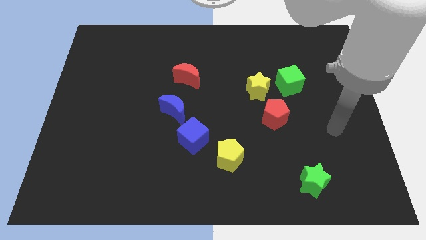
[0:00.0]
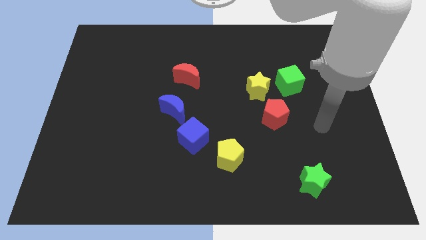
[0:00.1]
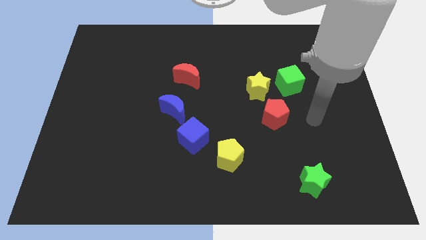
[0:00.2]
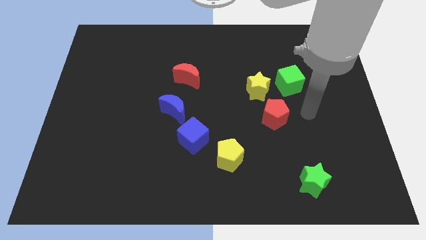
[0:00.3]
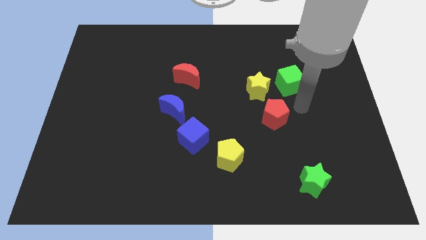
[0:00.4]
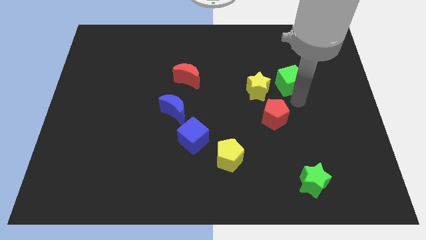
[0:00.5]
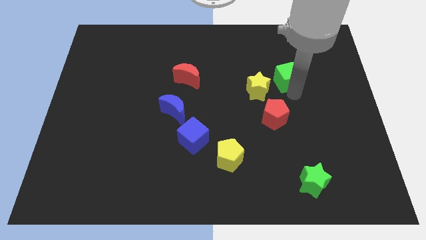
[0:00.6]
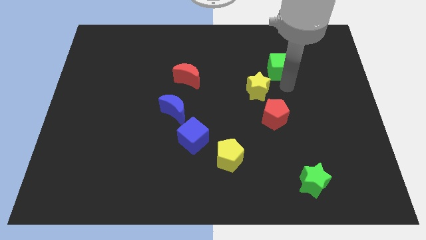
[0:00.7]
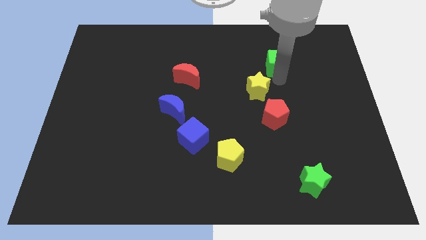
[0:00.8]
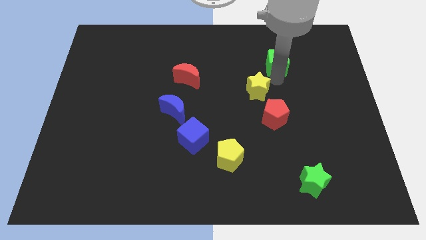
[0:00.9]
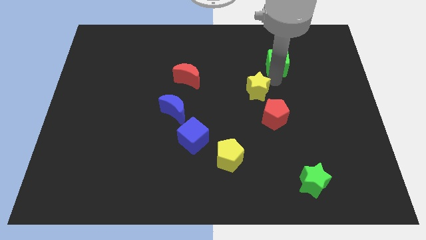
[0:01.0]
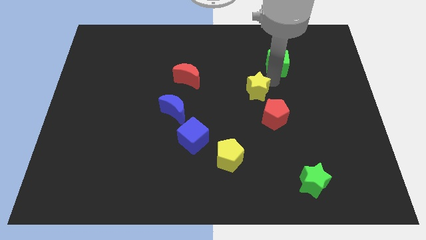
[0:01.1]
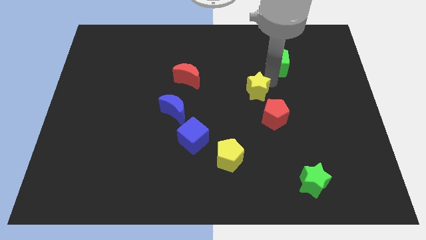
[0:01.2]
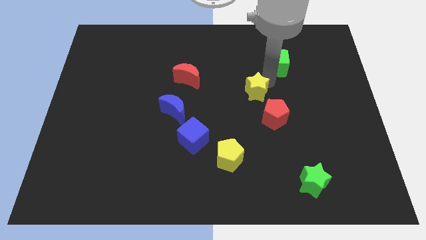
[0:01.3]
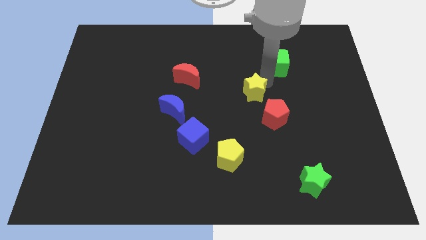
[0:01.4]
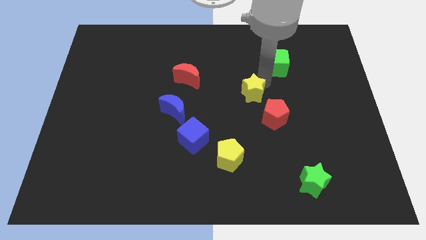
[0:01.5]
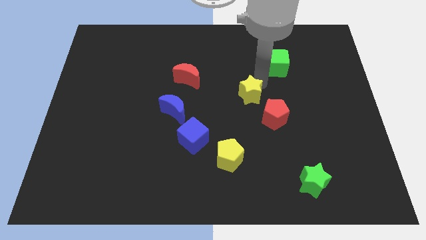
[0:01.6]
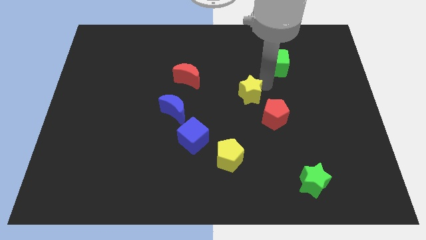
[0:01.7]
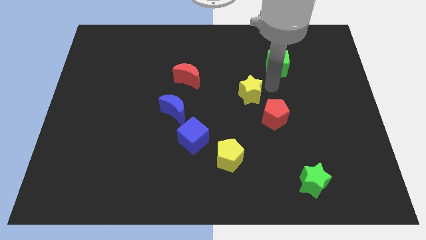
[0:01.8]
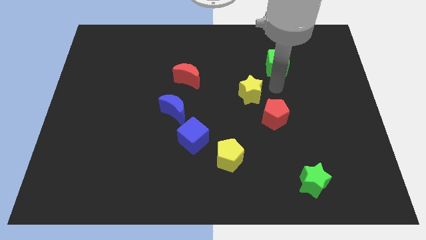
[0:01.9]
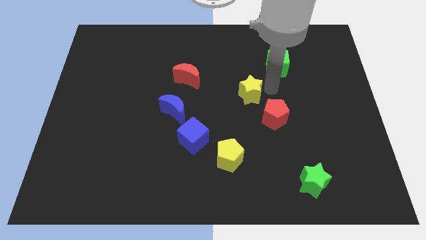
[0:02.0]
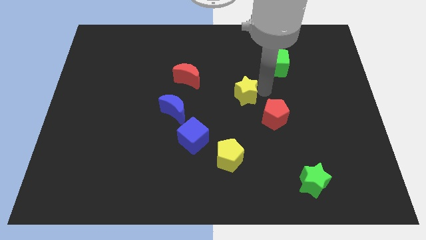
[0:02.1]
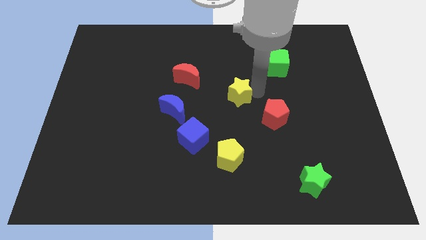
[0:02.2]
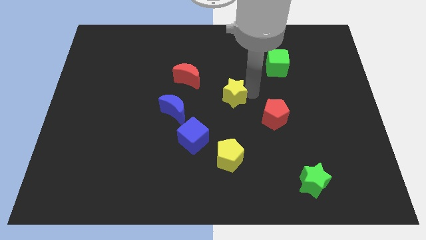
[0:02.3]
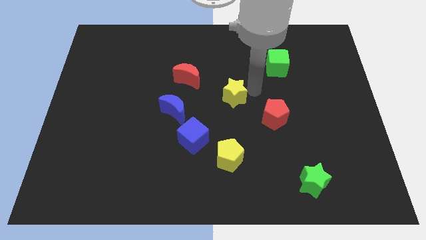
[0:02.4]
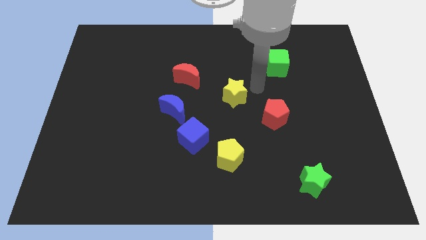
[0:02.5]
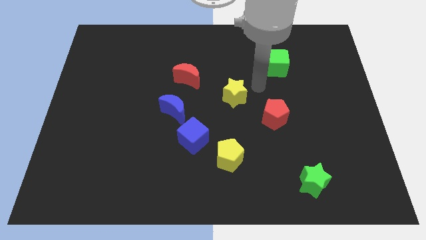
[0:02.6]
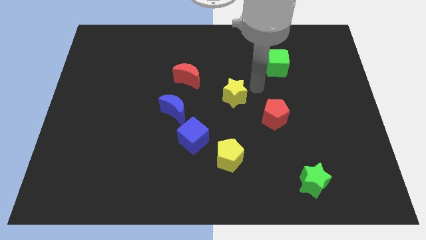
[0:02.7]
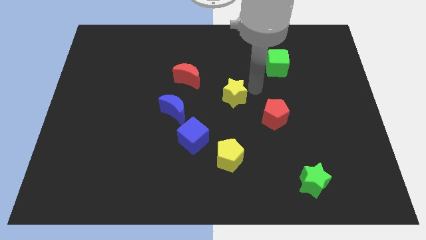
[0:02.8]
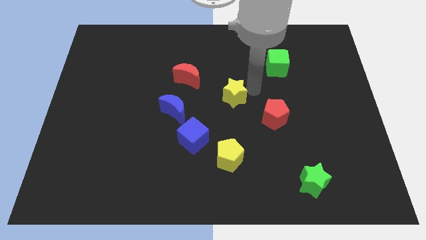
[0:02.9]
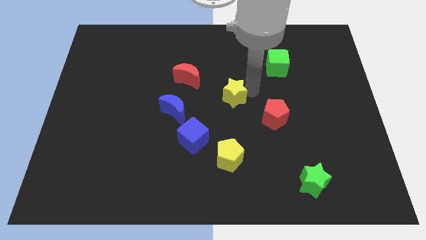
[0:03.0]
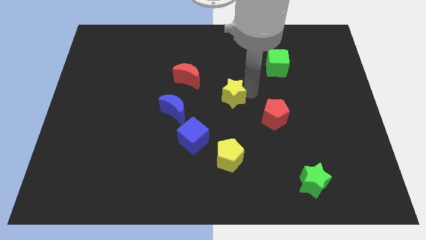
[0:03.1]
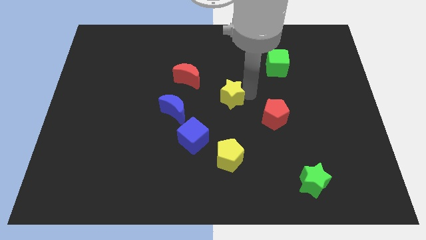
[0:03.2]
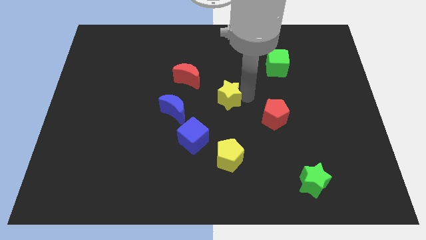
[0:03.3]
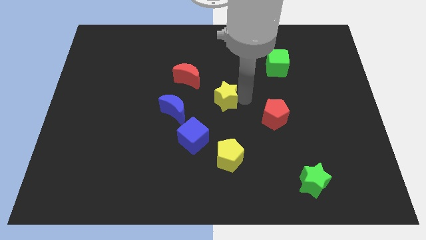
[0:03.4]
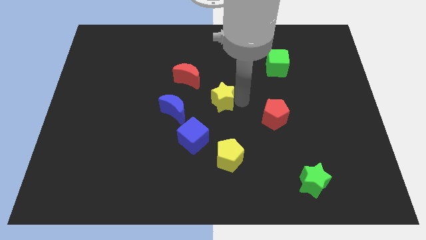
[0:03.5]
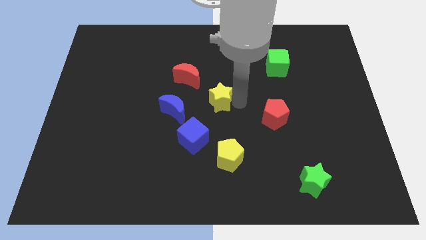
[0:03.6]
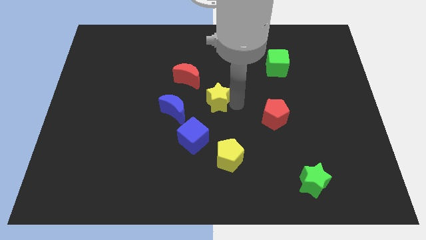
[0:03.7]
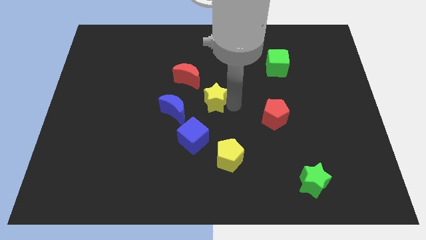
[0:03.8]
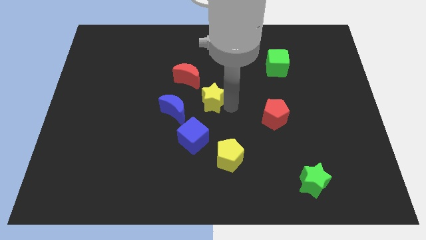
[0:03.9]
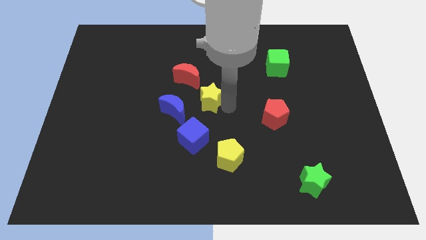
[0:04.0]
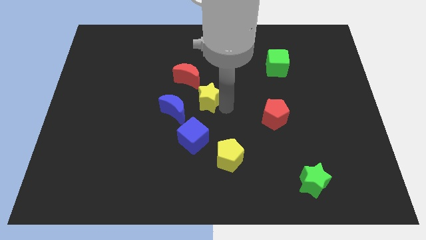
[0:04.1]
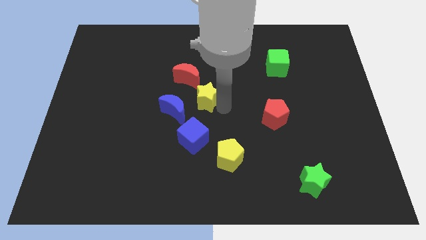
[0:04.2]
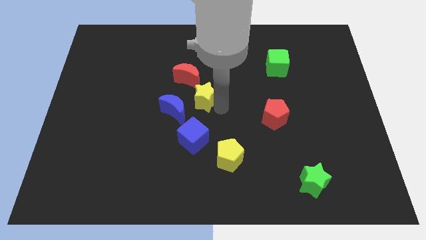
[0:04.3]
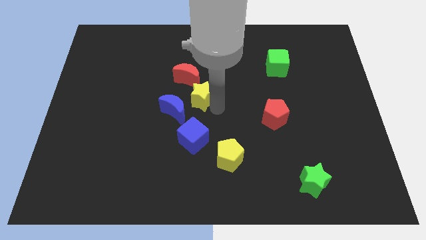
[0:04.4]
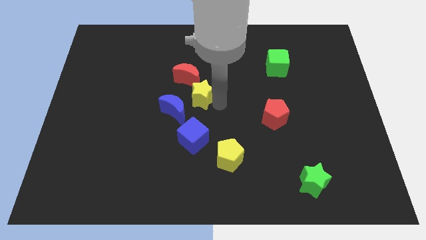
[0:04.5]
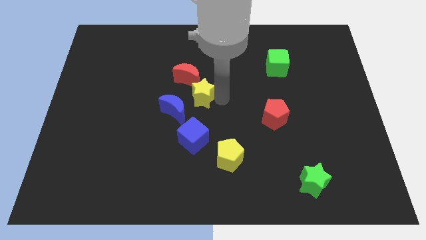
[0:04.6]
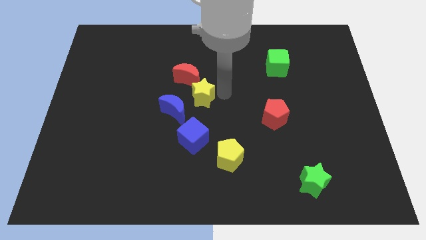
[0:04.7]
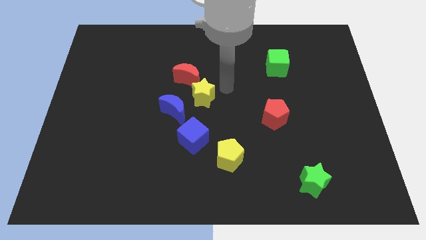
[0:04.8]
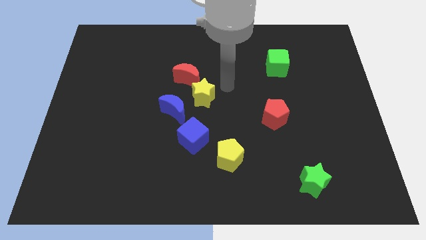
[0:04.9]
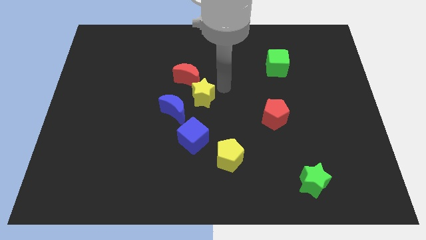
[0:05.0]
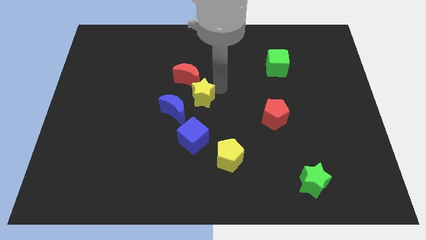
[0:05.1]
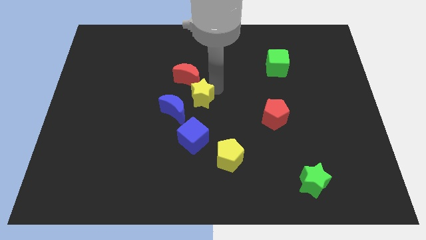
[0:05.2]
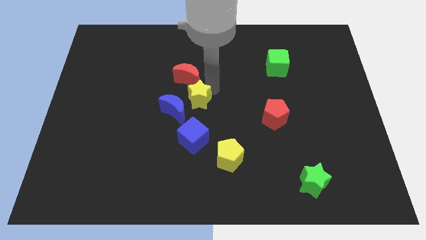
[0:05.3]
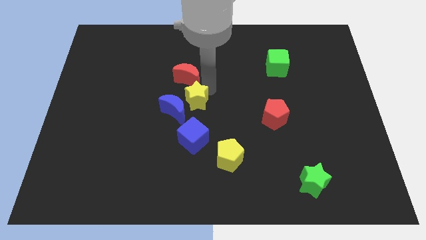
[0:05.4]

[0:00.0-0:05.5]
push the yellow star next to the blue moon

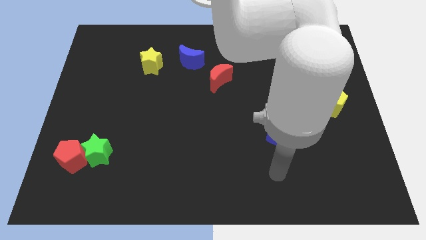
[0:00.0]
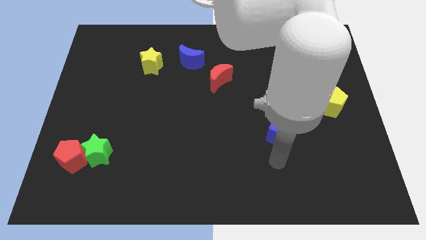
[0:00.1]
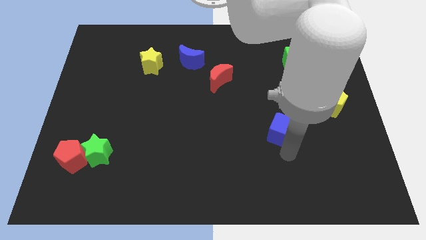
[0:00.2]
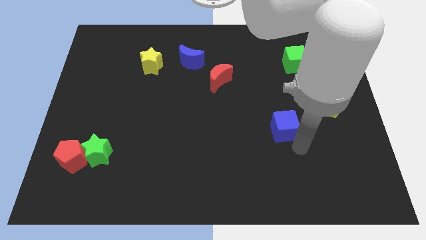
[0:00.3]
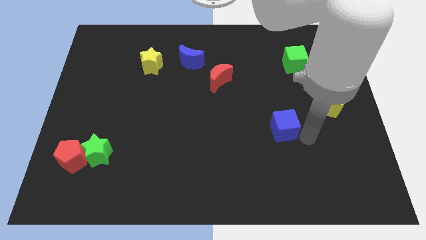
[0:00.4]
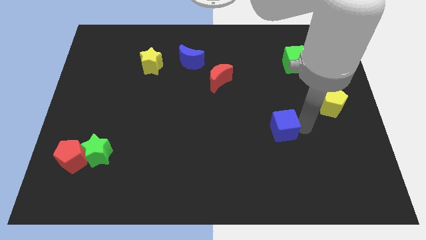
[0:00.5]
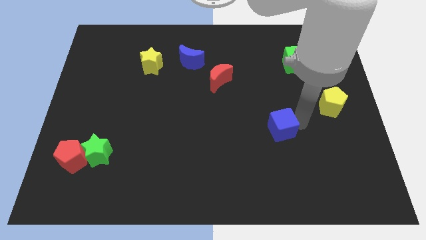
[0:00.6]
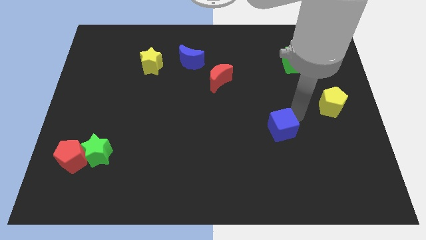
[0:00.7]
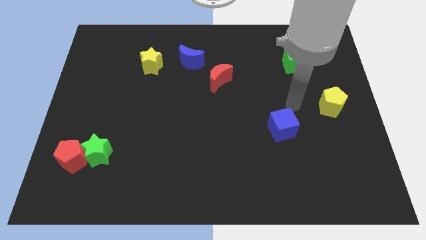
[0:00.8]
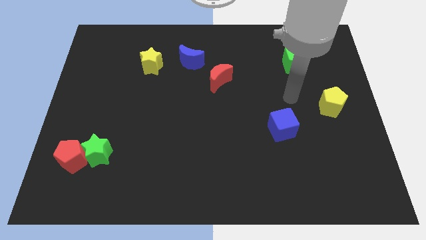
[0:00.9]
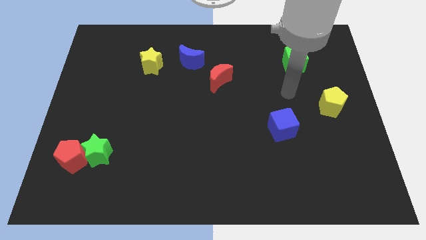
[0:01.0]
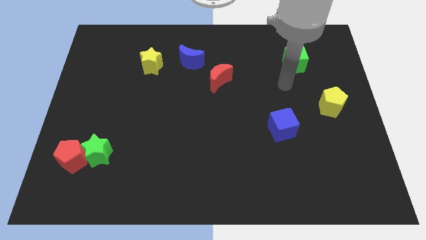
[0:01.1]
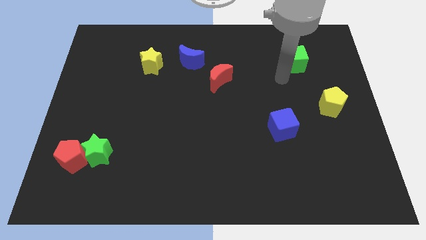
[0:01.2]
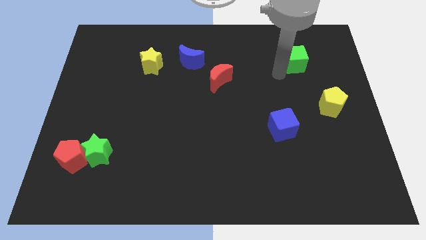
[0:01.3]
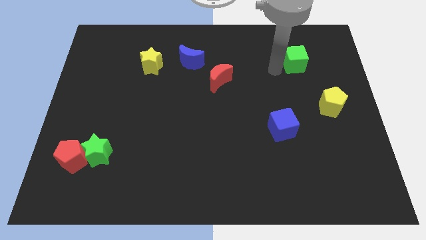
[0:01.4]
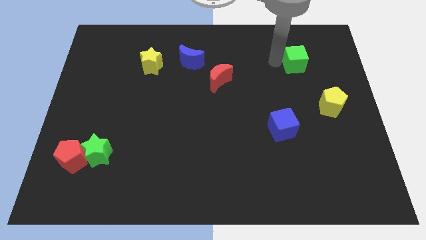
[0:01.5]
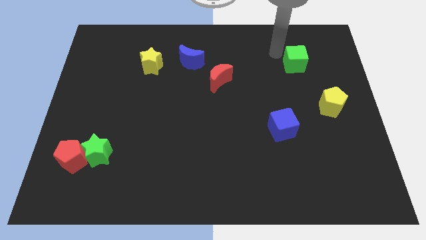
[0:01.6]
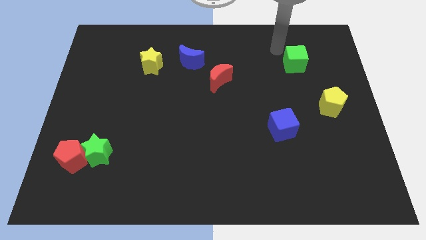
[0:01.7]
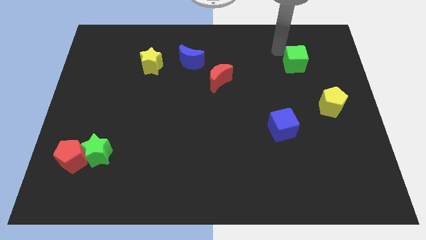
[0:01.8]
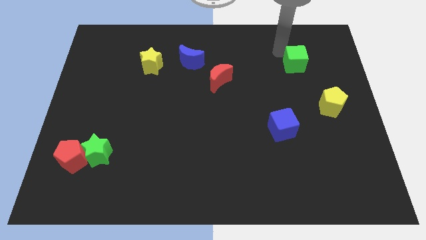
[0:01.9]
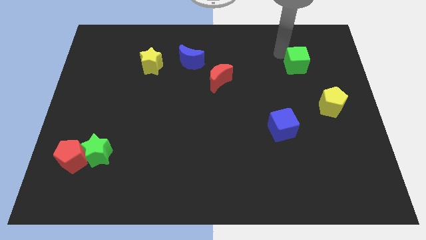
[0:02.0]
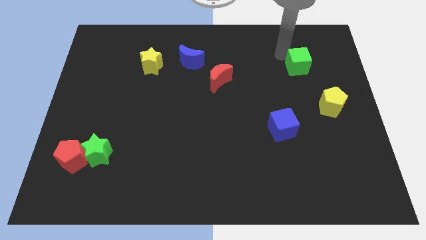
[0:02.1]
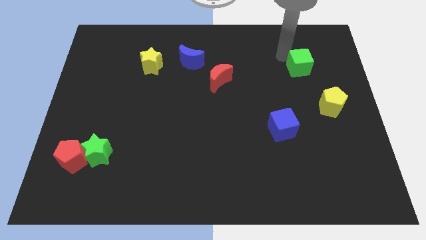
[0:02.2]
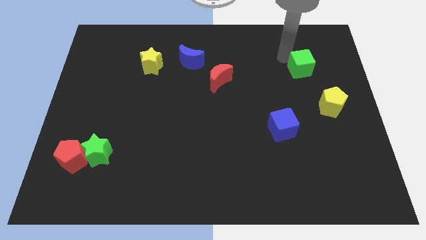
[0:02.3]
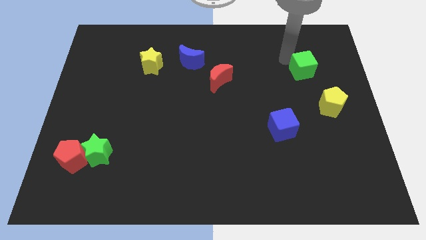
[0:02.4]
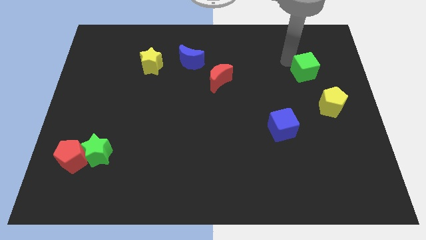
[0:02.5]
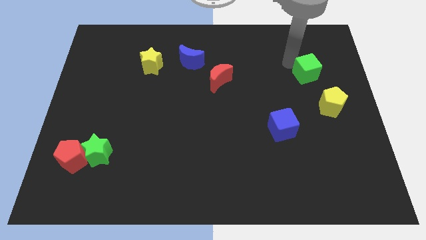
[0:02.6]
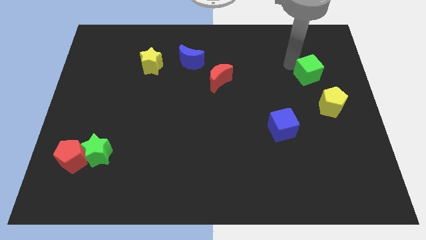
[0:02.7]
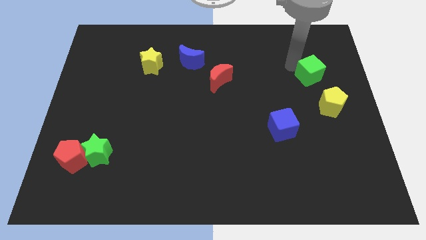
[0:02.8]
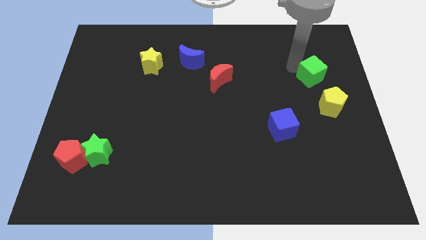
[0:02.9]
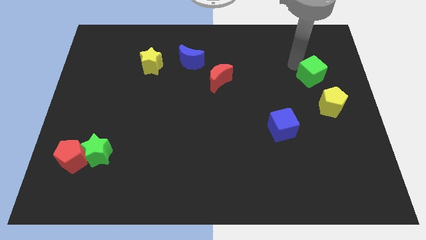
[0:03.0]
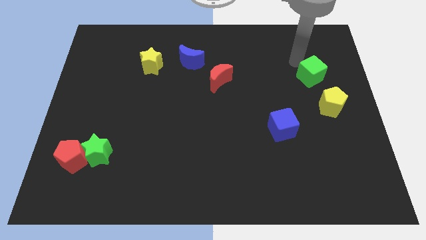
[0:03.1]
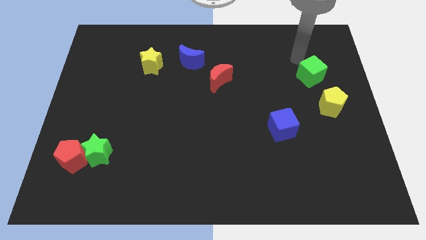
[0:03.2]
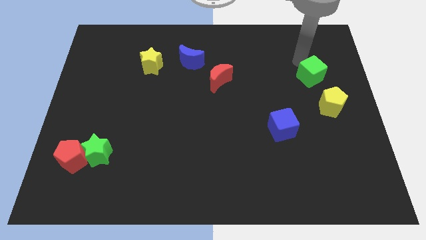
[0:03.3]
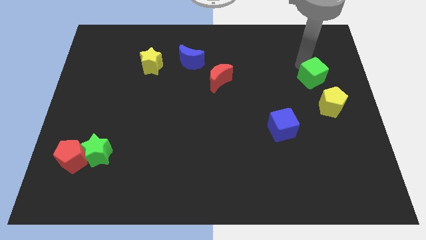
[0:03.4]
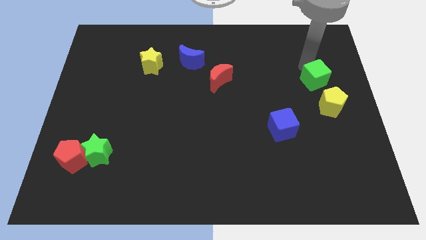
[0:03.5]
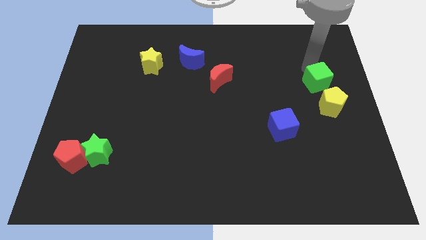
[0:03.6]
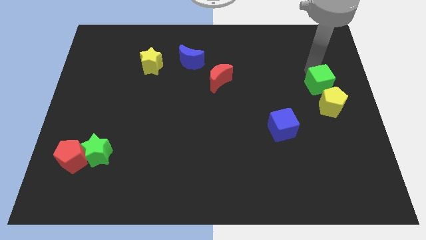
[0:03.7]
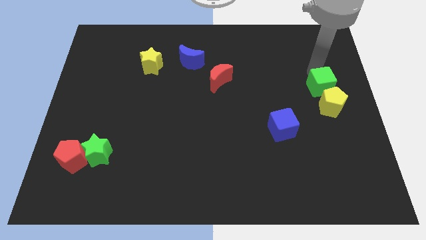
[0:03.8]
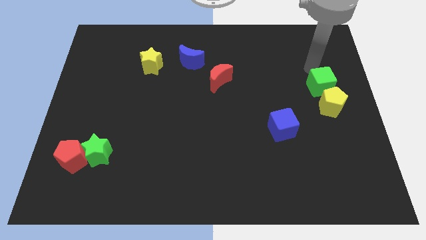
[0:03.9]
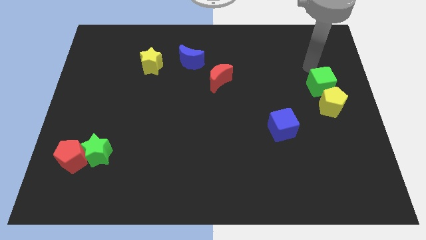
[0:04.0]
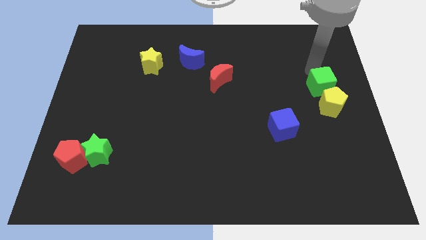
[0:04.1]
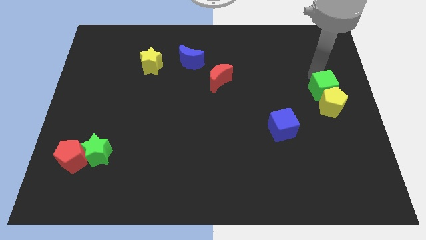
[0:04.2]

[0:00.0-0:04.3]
push the green cube close to the yellow pentagon
